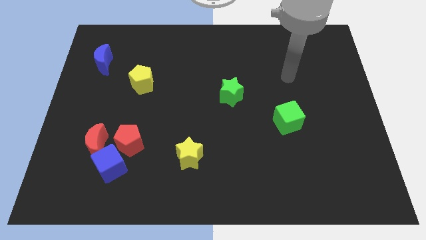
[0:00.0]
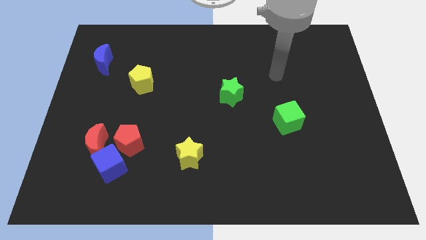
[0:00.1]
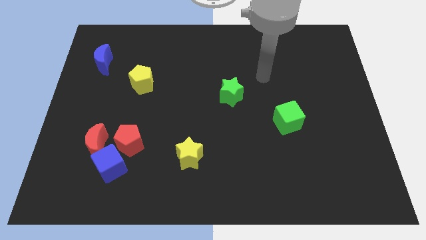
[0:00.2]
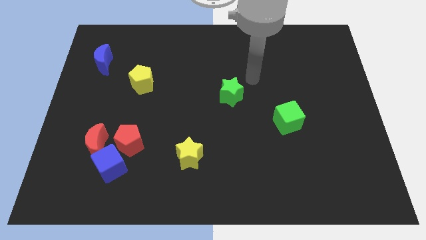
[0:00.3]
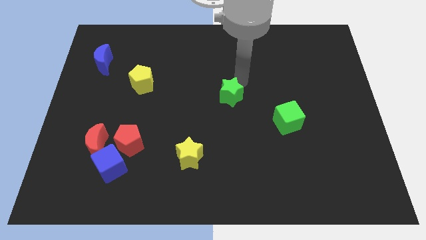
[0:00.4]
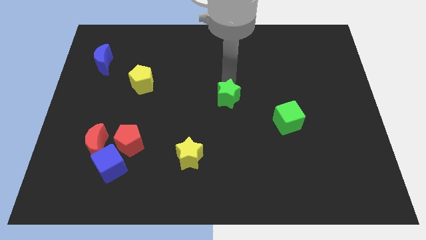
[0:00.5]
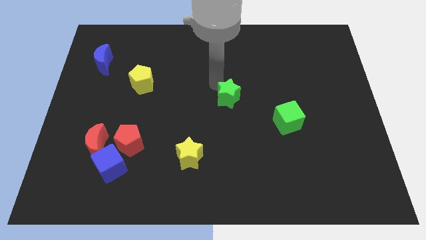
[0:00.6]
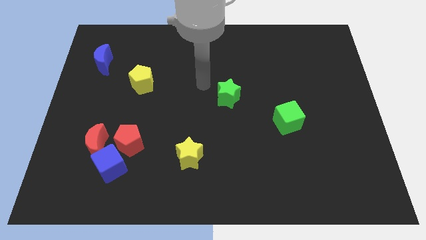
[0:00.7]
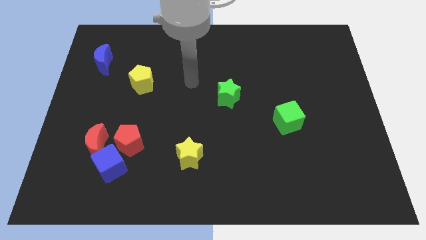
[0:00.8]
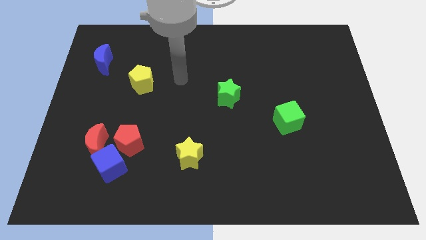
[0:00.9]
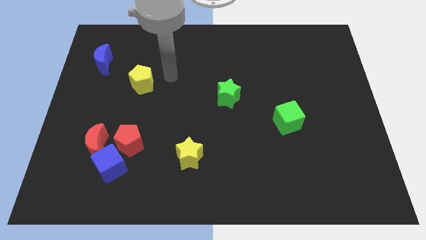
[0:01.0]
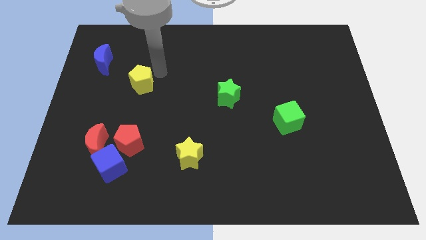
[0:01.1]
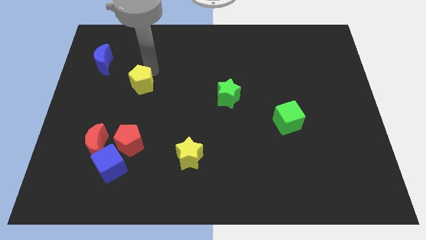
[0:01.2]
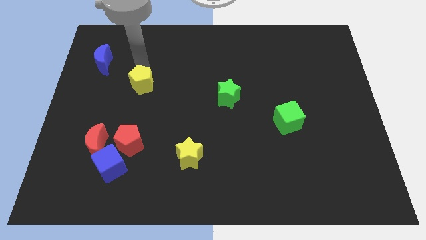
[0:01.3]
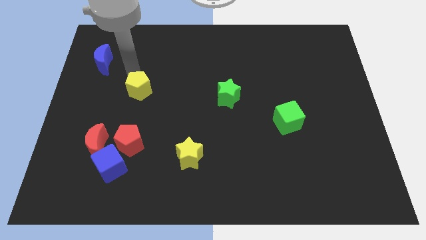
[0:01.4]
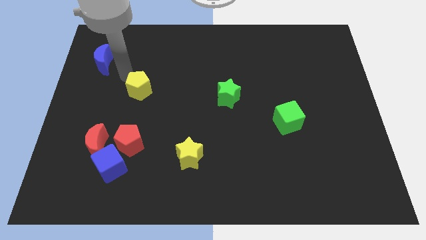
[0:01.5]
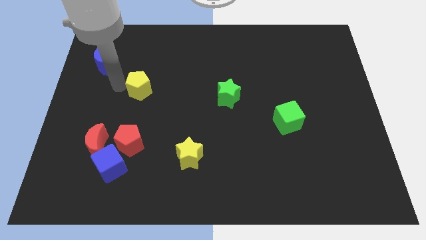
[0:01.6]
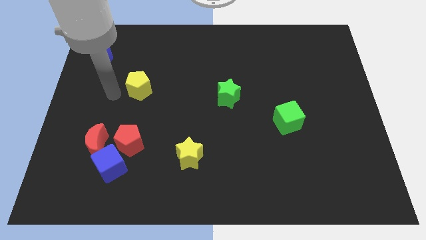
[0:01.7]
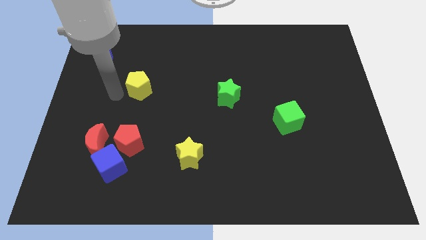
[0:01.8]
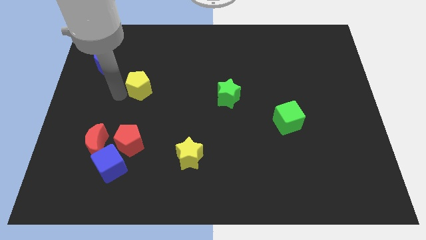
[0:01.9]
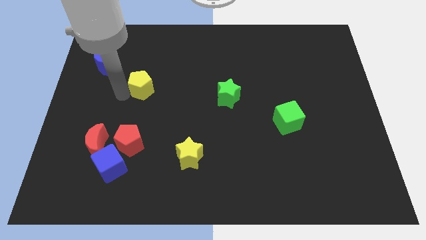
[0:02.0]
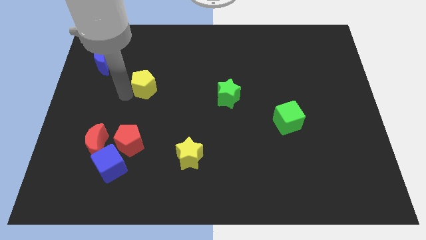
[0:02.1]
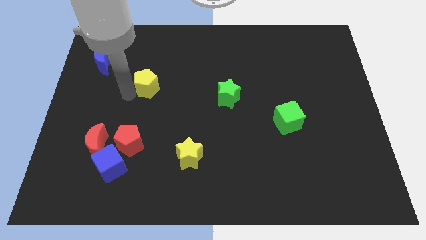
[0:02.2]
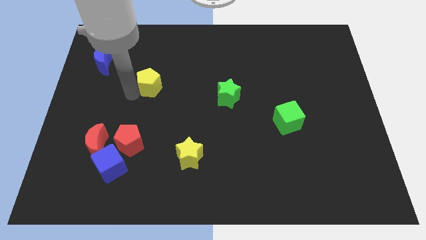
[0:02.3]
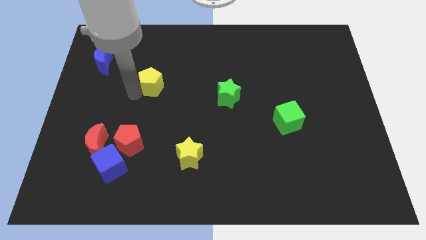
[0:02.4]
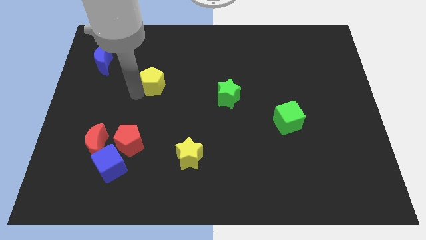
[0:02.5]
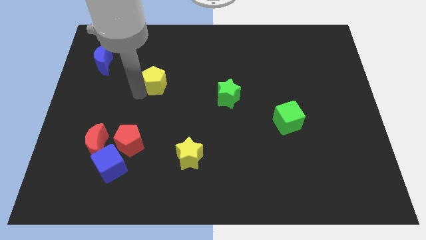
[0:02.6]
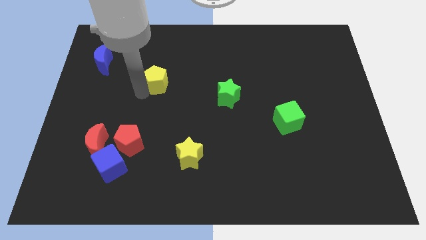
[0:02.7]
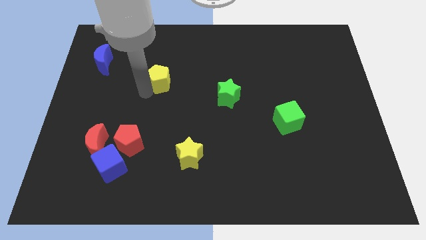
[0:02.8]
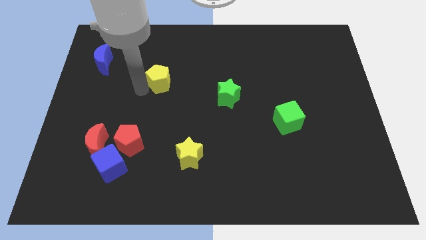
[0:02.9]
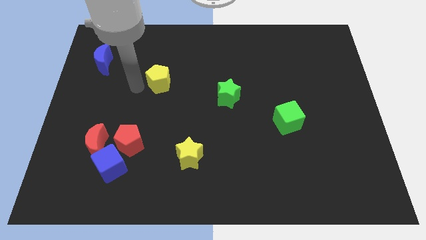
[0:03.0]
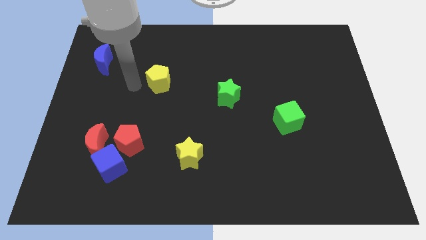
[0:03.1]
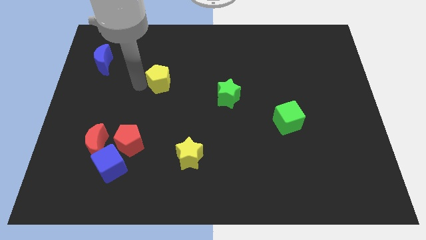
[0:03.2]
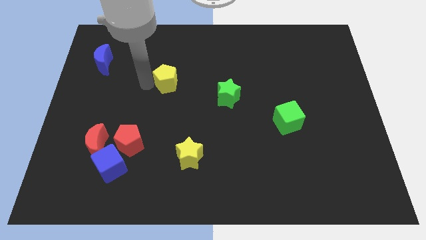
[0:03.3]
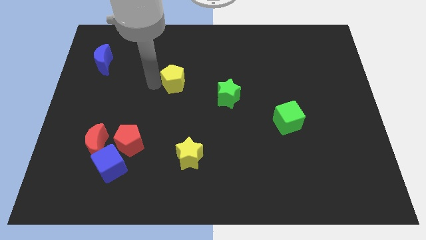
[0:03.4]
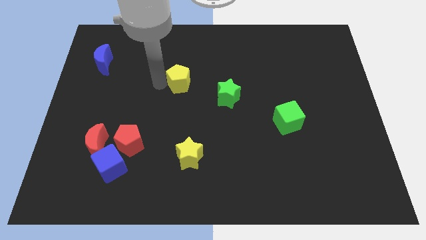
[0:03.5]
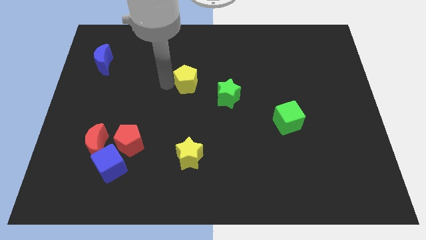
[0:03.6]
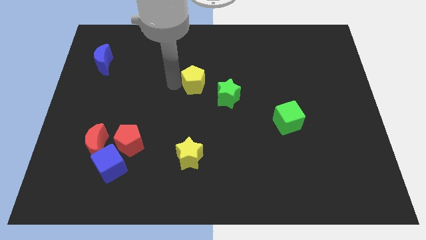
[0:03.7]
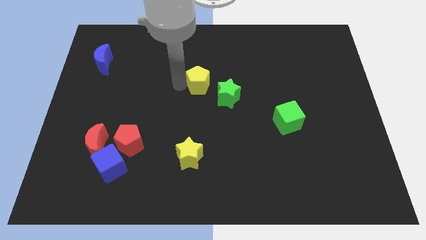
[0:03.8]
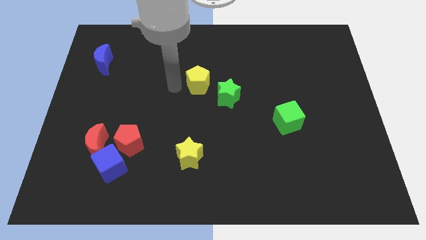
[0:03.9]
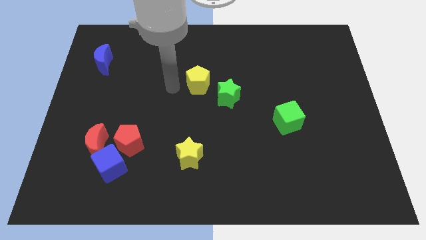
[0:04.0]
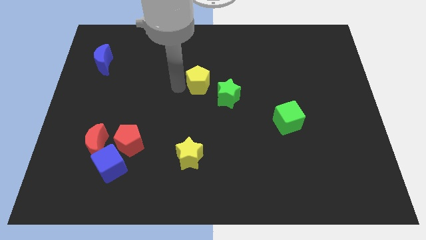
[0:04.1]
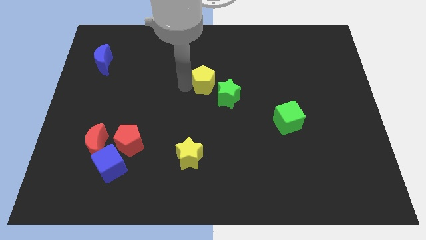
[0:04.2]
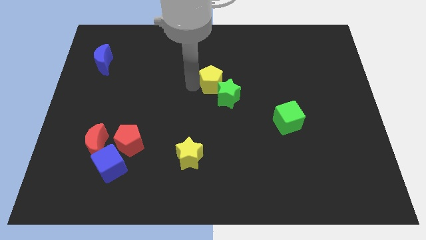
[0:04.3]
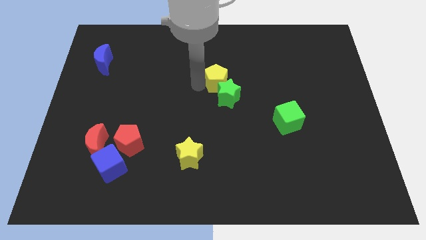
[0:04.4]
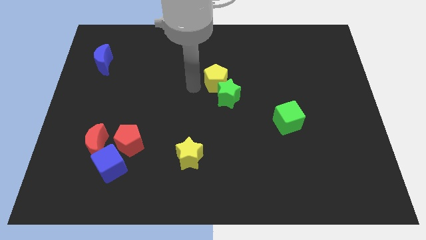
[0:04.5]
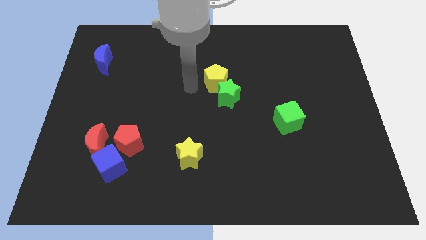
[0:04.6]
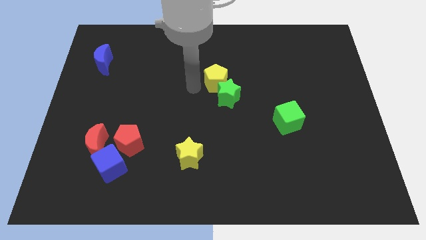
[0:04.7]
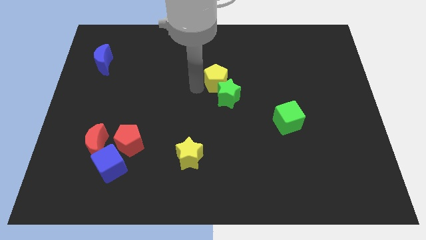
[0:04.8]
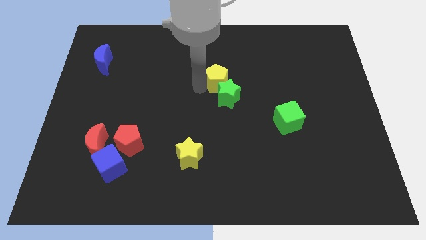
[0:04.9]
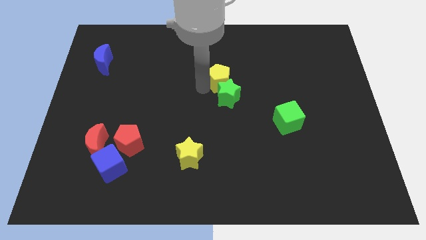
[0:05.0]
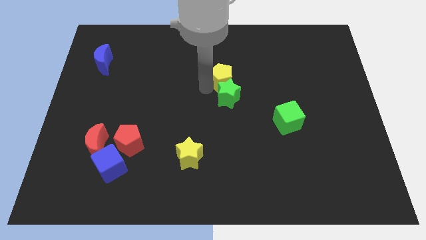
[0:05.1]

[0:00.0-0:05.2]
slide the yellow pentagon right

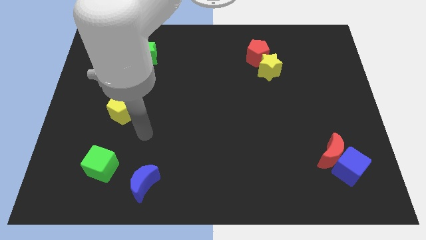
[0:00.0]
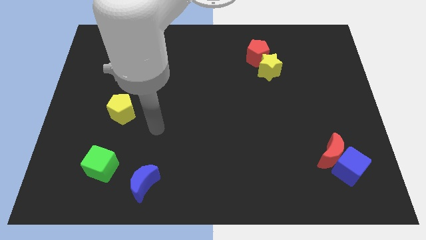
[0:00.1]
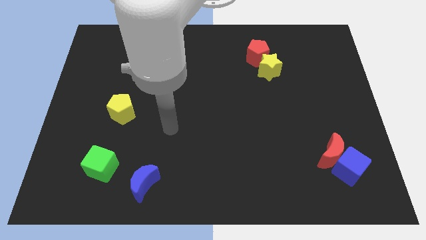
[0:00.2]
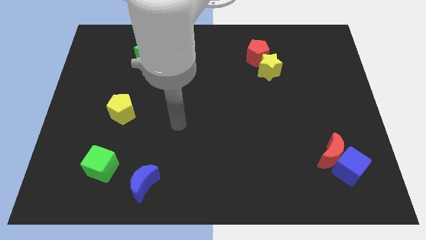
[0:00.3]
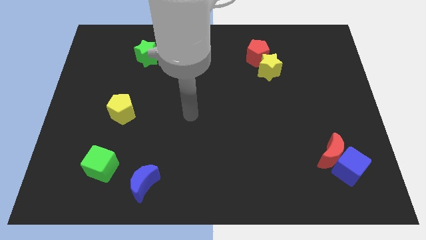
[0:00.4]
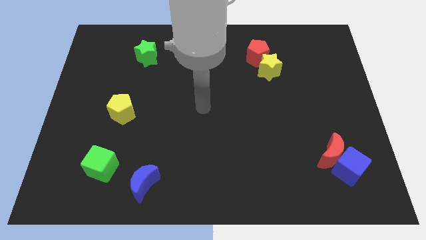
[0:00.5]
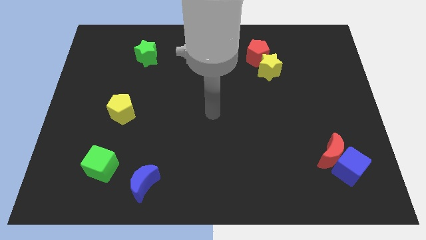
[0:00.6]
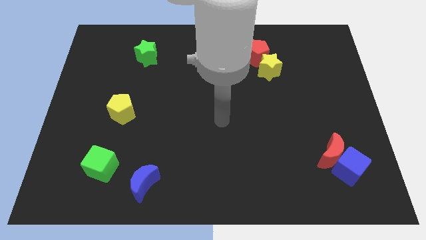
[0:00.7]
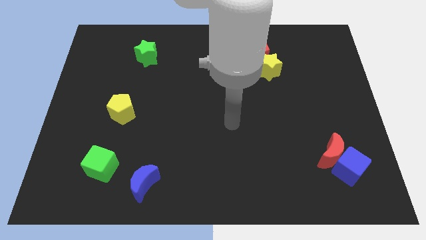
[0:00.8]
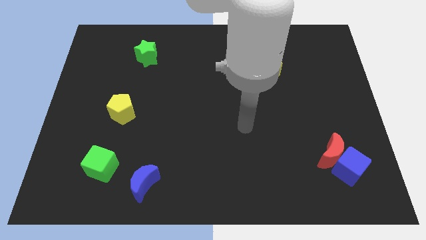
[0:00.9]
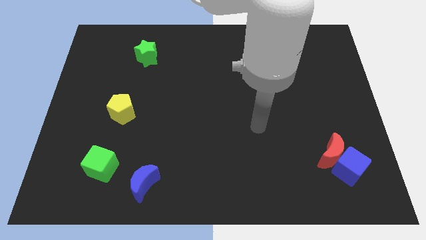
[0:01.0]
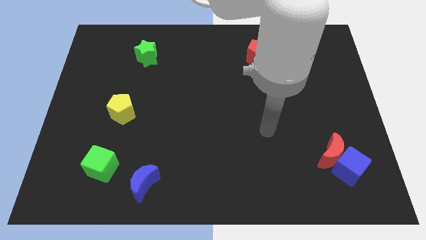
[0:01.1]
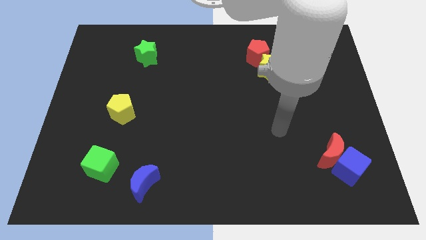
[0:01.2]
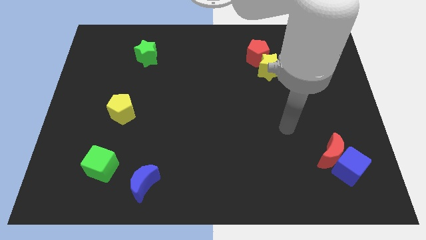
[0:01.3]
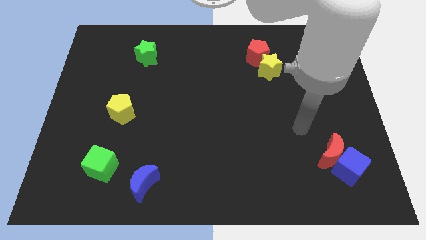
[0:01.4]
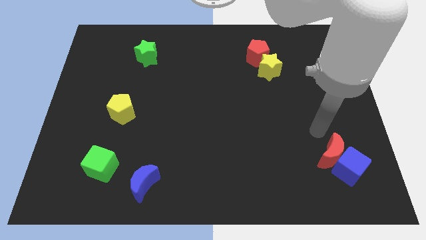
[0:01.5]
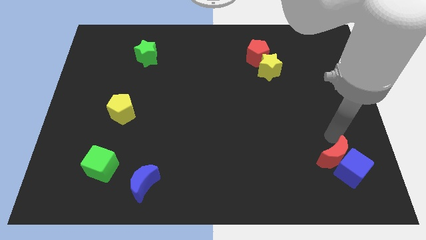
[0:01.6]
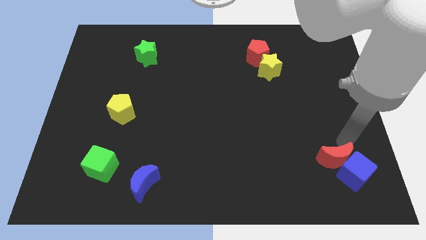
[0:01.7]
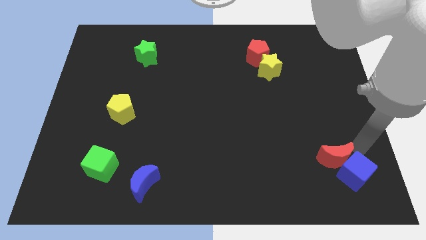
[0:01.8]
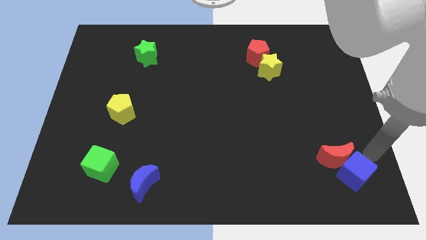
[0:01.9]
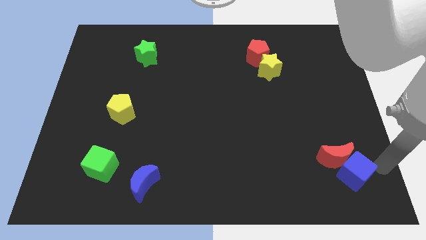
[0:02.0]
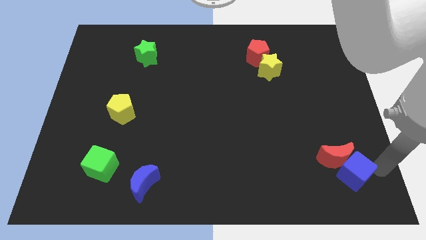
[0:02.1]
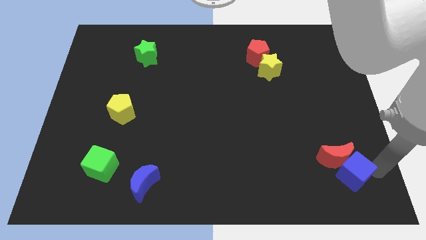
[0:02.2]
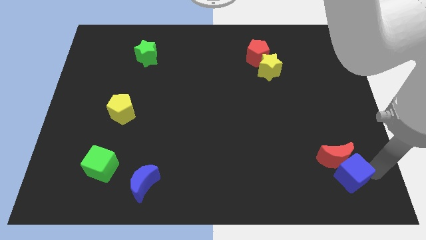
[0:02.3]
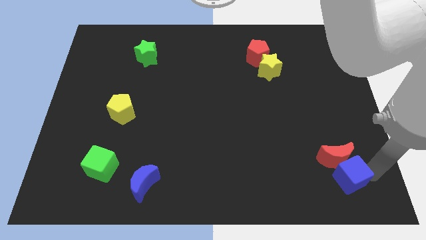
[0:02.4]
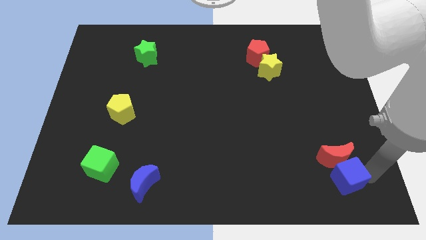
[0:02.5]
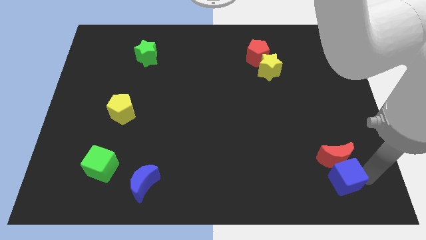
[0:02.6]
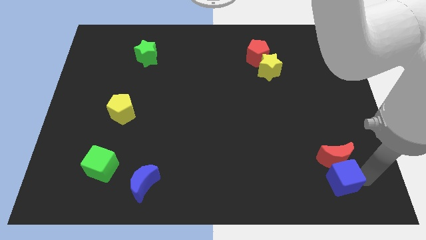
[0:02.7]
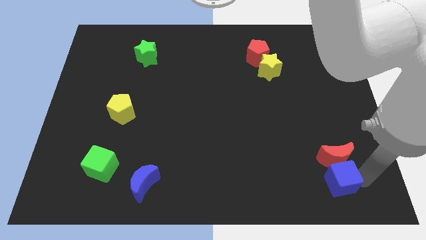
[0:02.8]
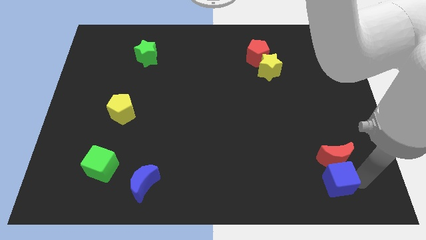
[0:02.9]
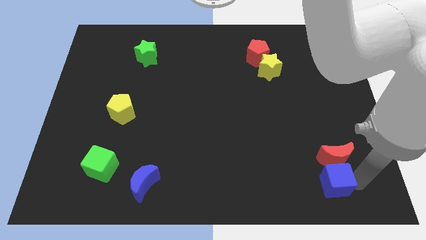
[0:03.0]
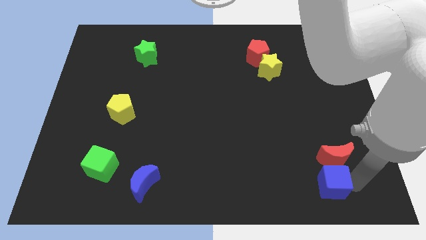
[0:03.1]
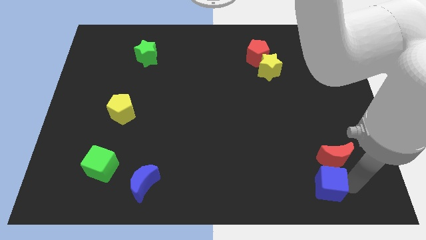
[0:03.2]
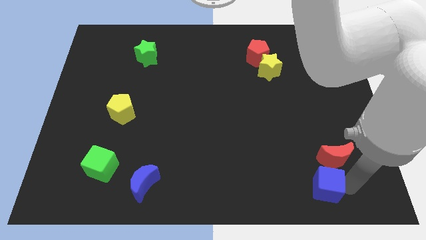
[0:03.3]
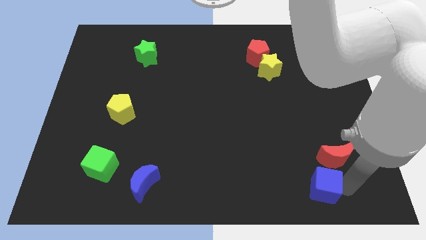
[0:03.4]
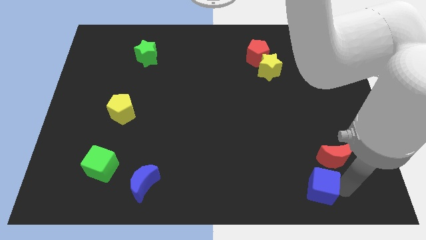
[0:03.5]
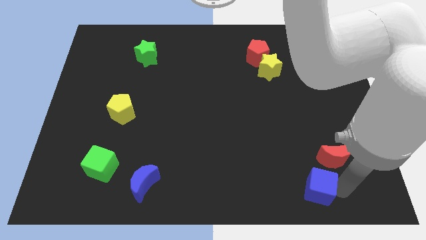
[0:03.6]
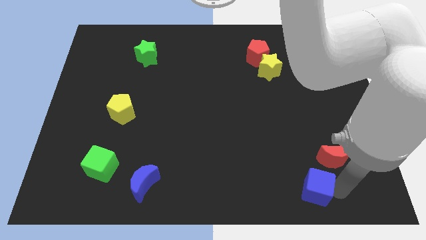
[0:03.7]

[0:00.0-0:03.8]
move the blue cube to the left a little bit
